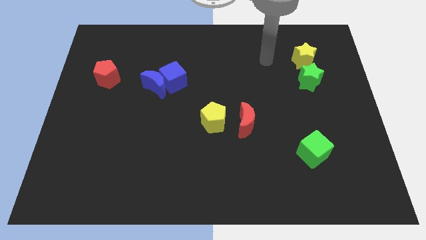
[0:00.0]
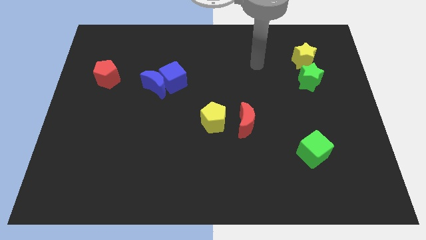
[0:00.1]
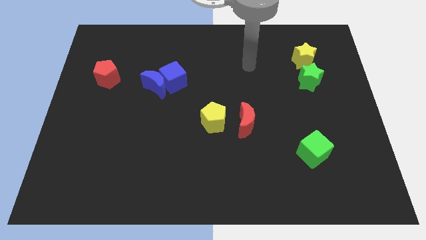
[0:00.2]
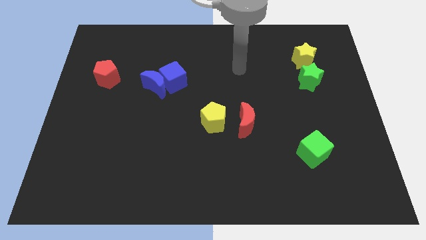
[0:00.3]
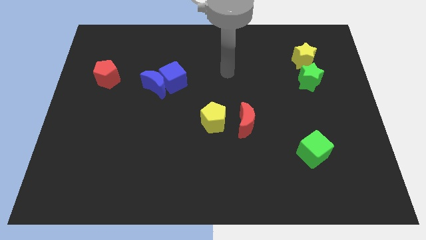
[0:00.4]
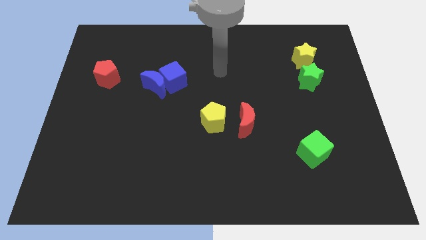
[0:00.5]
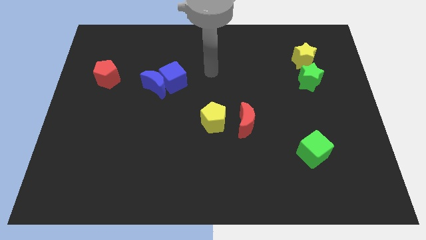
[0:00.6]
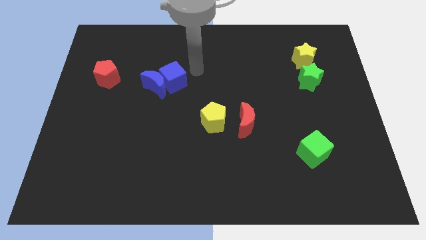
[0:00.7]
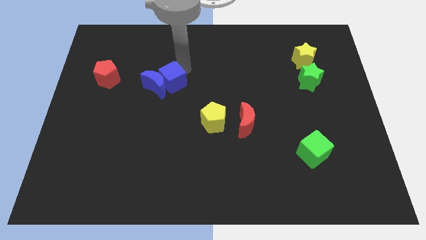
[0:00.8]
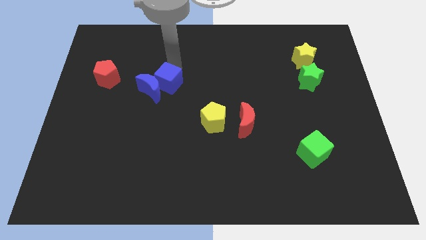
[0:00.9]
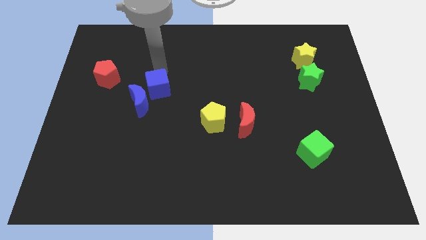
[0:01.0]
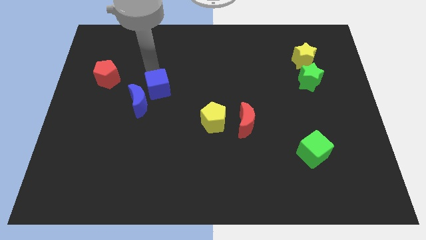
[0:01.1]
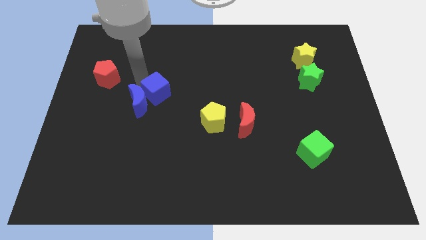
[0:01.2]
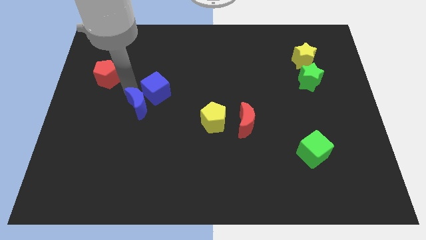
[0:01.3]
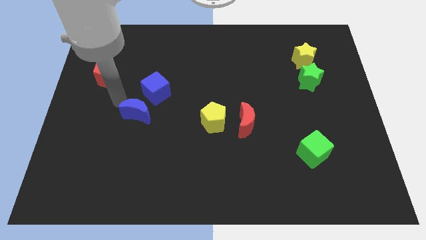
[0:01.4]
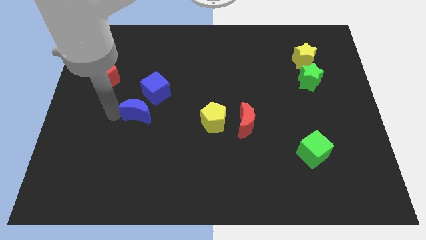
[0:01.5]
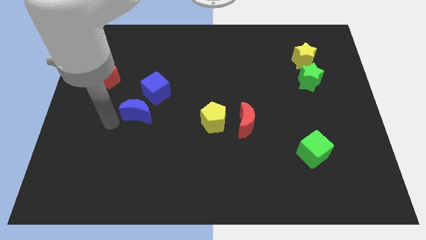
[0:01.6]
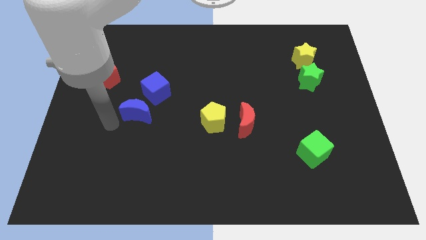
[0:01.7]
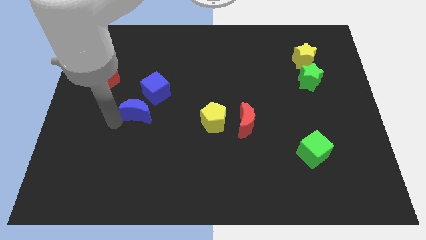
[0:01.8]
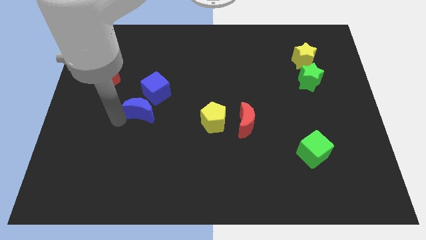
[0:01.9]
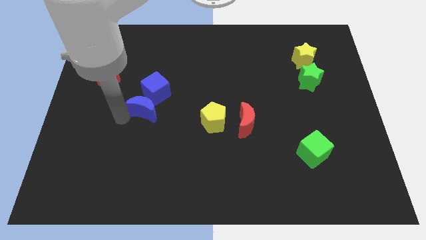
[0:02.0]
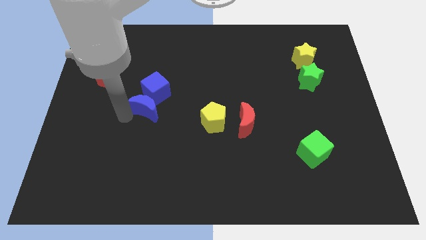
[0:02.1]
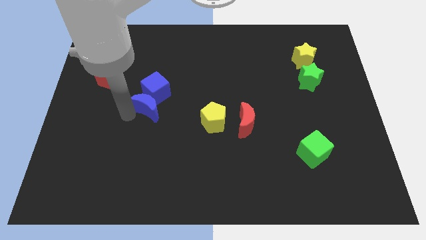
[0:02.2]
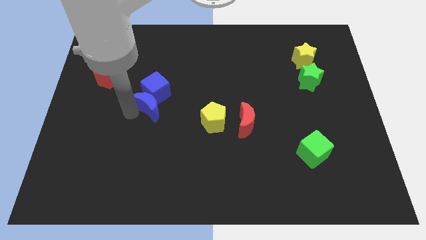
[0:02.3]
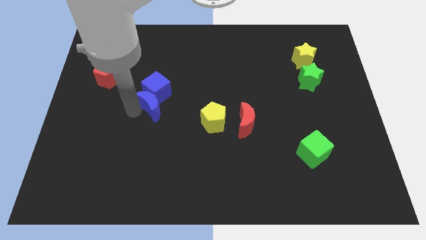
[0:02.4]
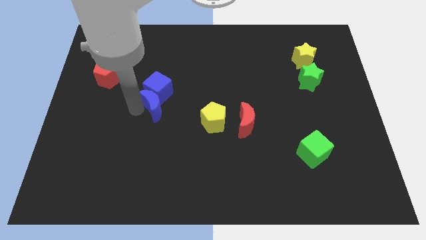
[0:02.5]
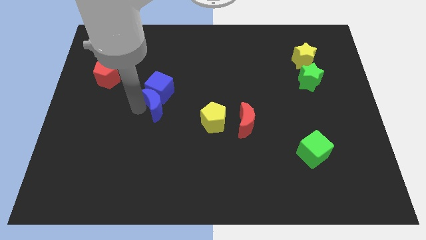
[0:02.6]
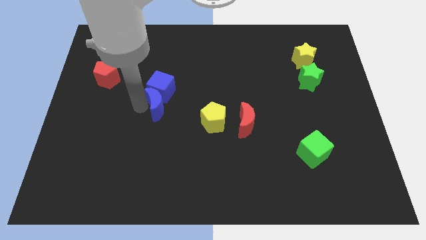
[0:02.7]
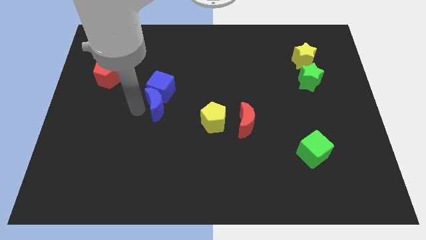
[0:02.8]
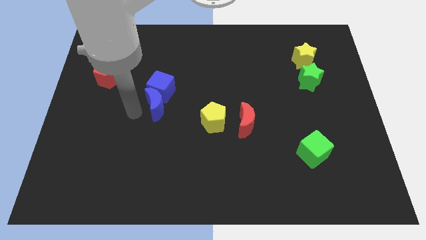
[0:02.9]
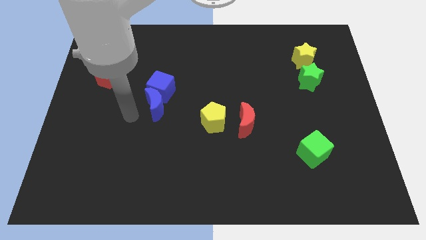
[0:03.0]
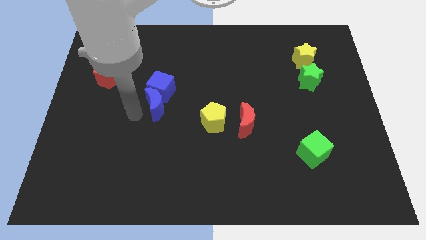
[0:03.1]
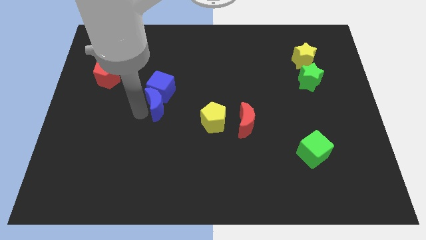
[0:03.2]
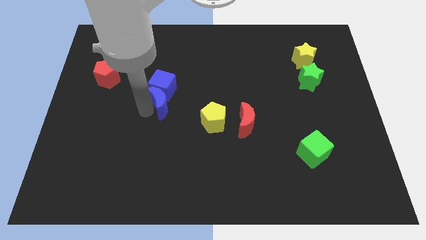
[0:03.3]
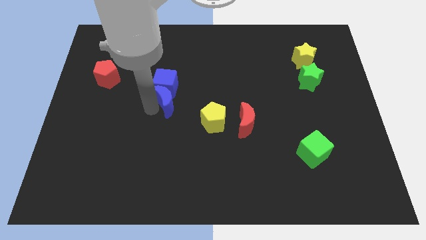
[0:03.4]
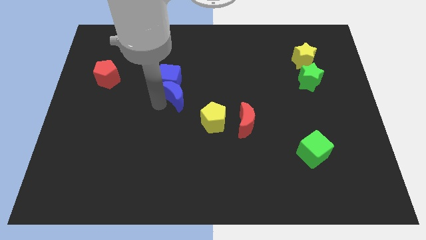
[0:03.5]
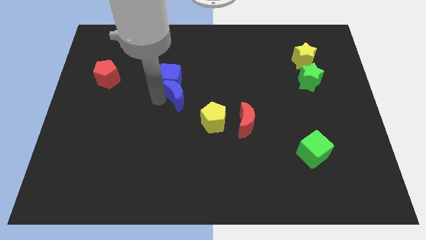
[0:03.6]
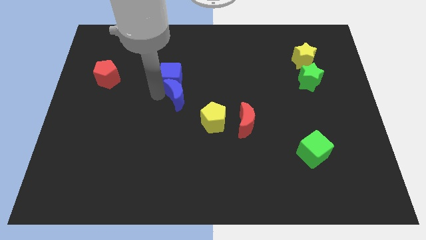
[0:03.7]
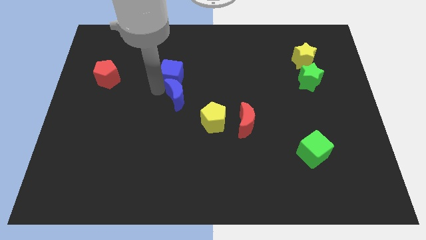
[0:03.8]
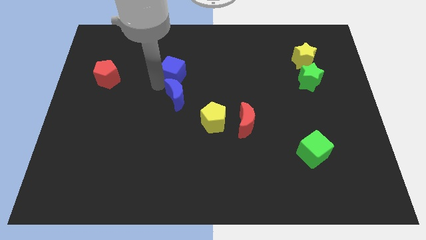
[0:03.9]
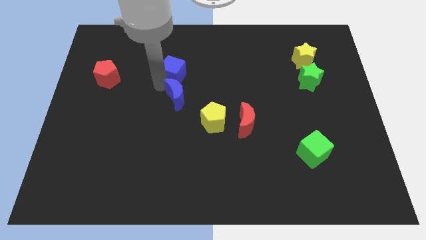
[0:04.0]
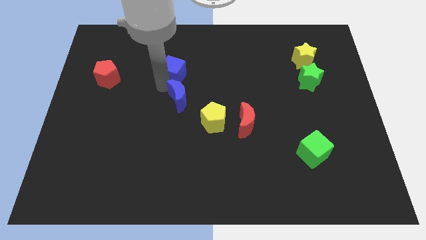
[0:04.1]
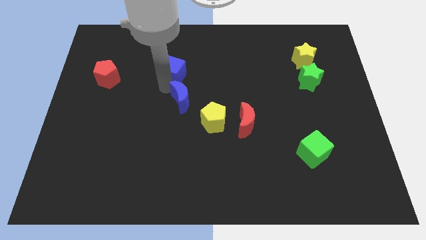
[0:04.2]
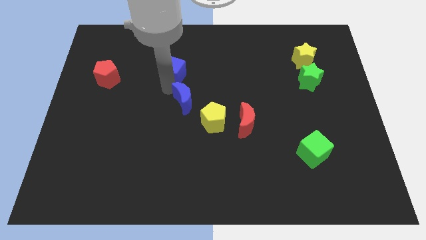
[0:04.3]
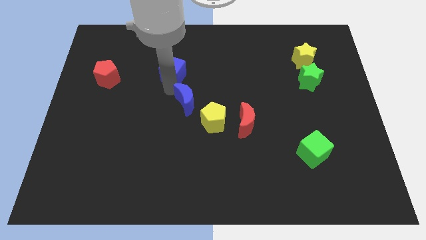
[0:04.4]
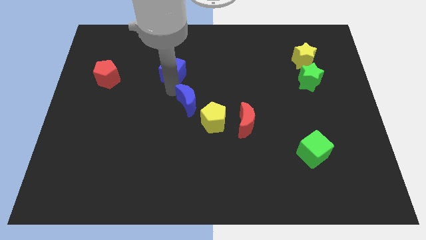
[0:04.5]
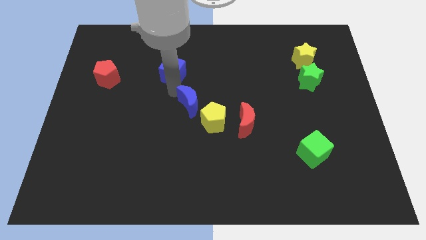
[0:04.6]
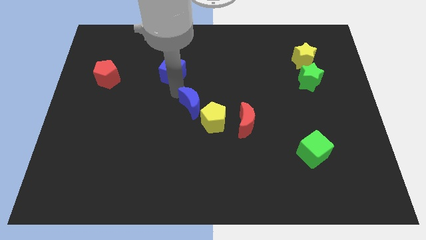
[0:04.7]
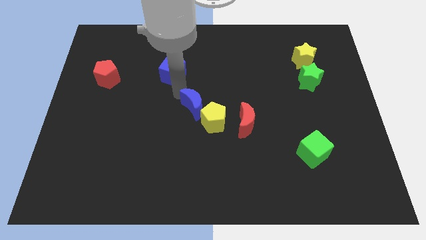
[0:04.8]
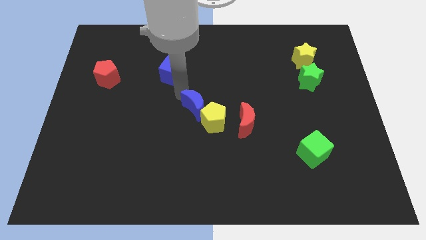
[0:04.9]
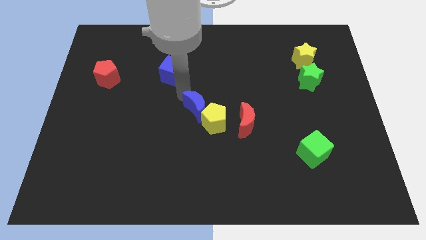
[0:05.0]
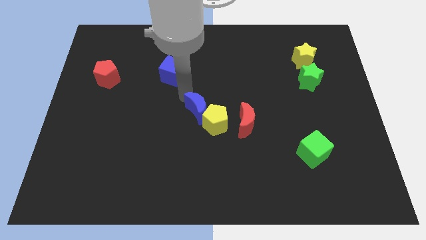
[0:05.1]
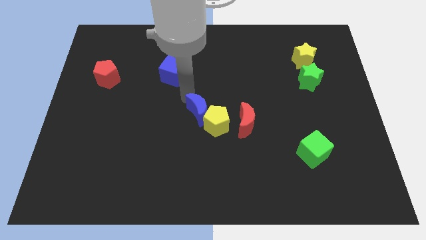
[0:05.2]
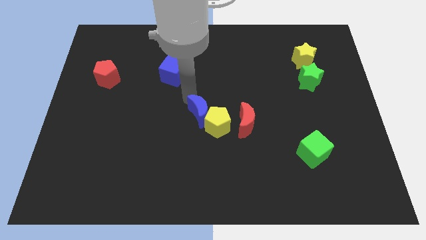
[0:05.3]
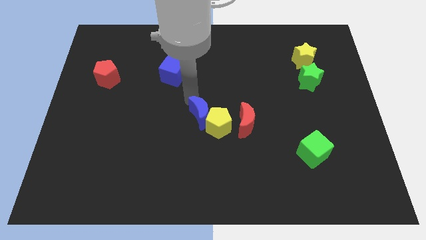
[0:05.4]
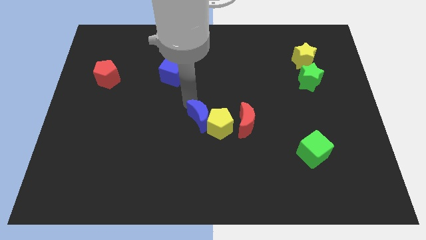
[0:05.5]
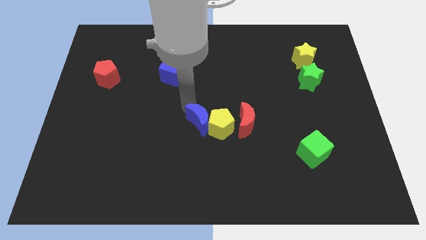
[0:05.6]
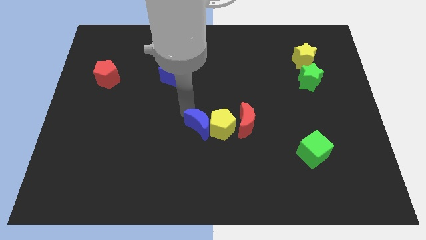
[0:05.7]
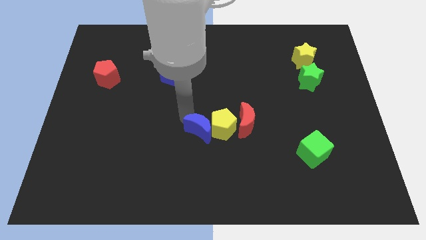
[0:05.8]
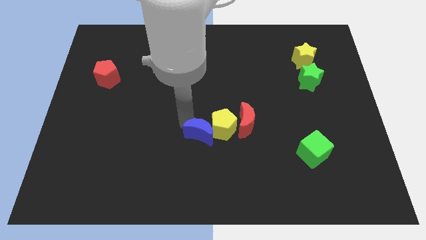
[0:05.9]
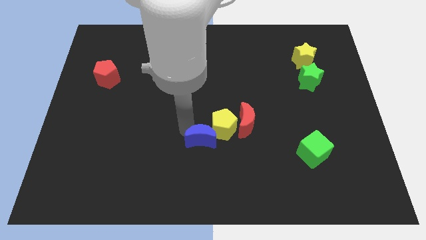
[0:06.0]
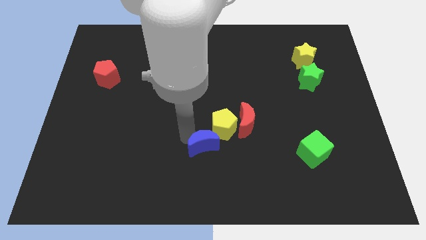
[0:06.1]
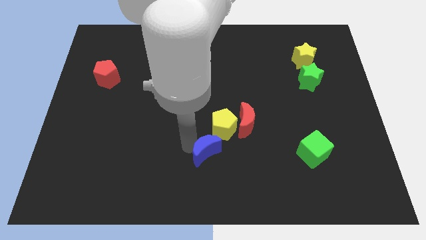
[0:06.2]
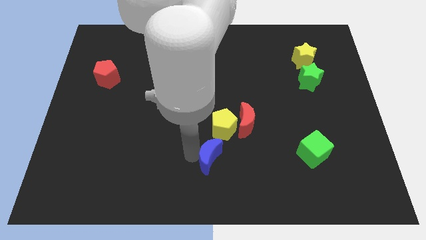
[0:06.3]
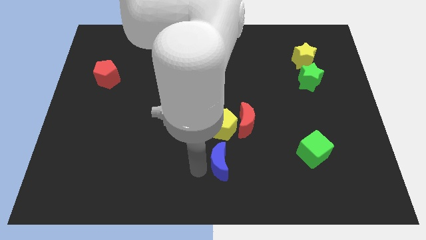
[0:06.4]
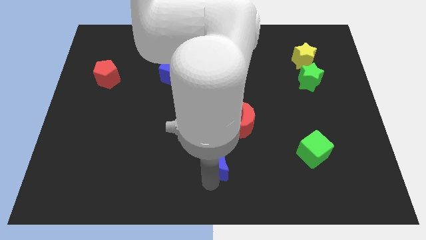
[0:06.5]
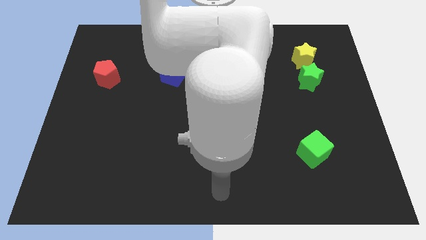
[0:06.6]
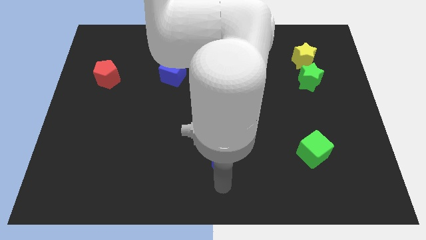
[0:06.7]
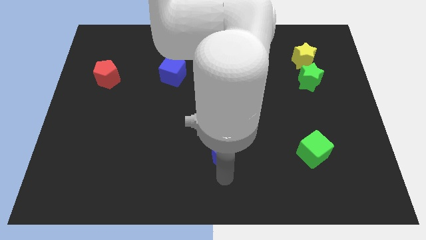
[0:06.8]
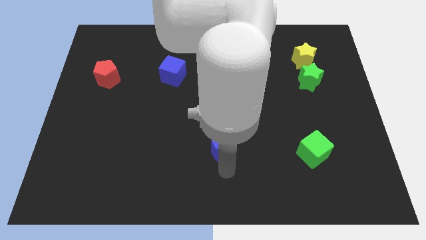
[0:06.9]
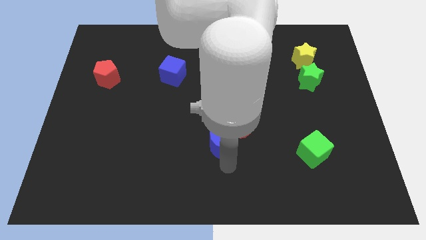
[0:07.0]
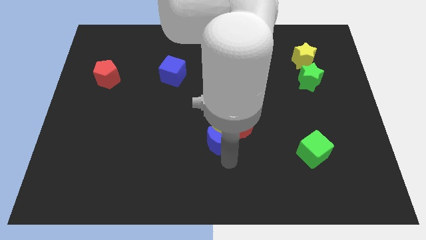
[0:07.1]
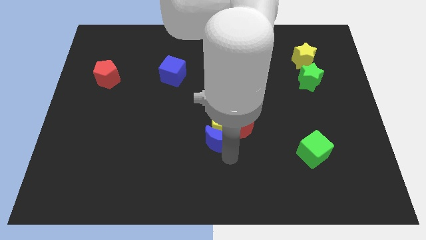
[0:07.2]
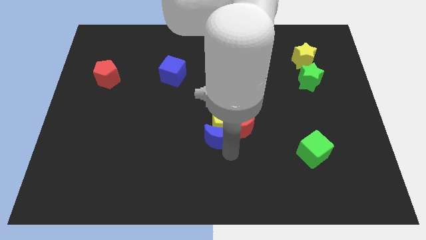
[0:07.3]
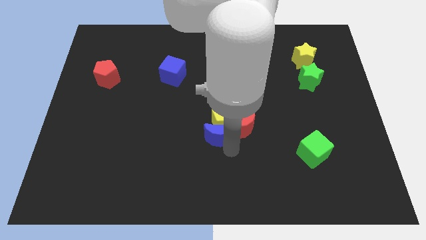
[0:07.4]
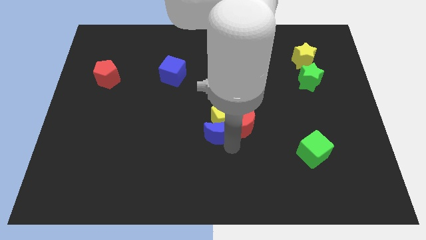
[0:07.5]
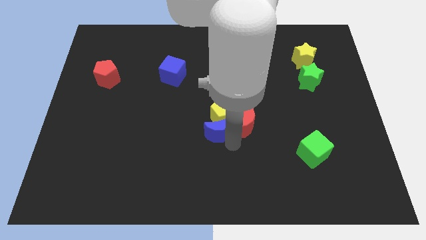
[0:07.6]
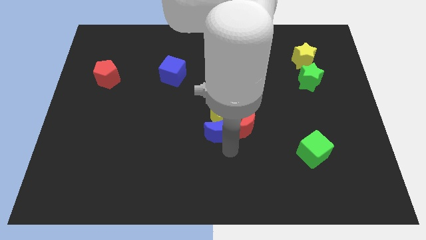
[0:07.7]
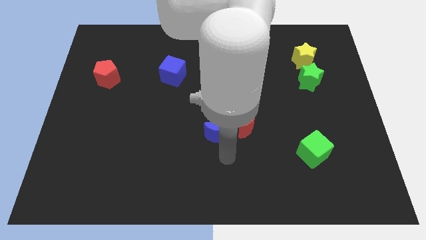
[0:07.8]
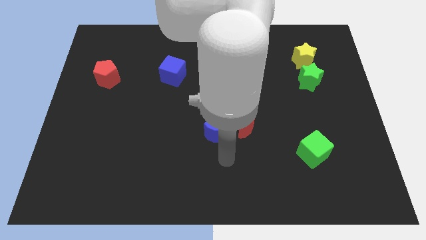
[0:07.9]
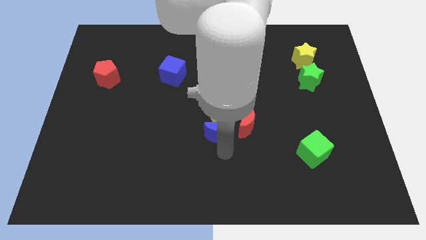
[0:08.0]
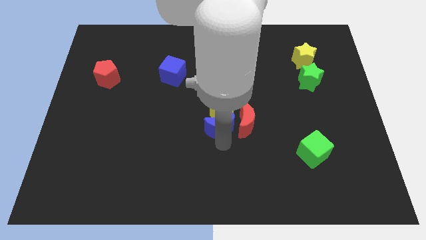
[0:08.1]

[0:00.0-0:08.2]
push the blue moon towards the red moon
